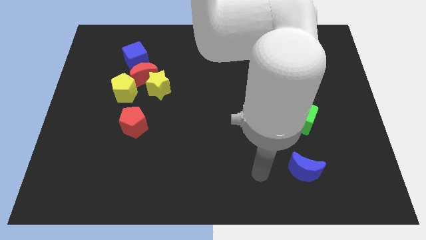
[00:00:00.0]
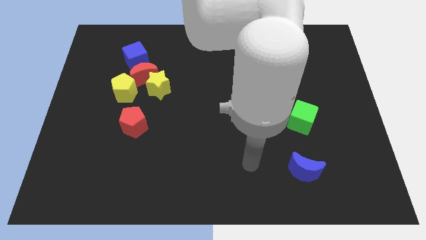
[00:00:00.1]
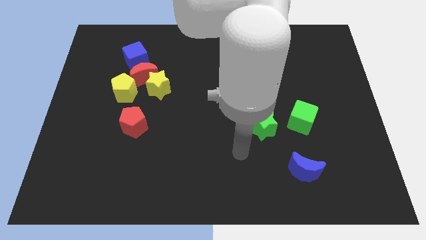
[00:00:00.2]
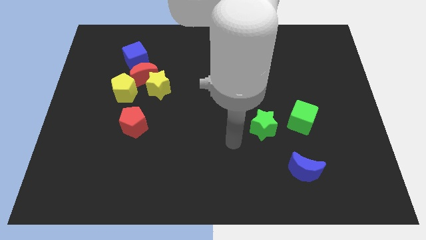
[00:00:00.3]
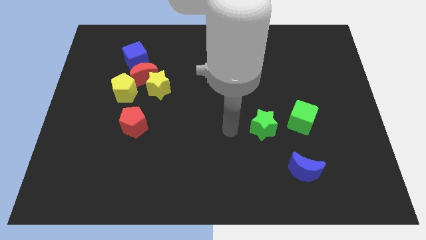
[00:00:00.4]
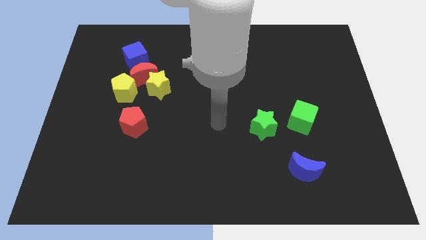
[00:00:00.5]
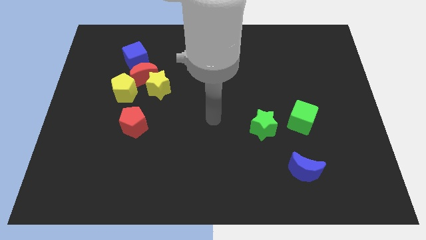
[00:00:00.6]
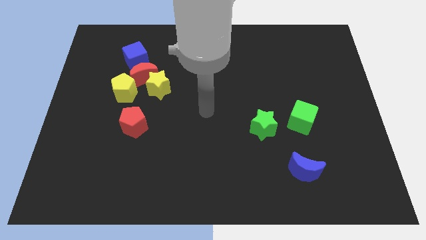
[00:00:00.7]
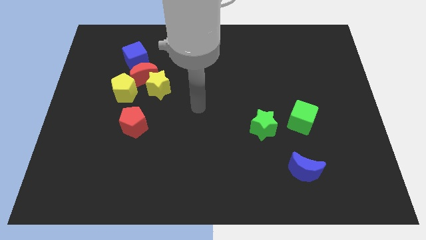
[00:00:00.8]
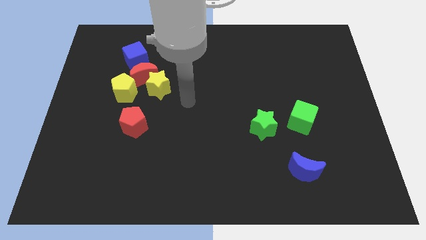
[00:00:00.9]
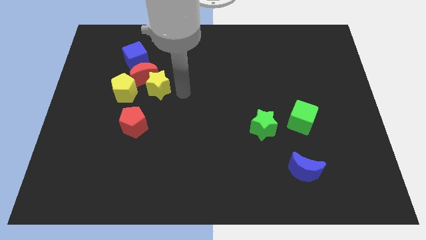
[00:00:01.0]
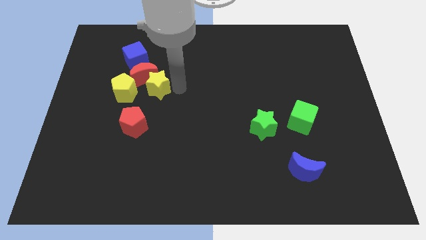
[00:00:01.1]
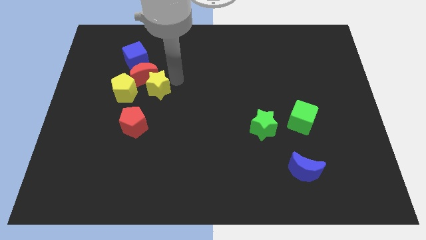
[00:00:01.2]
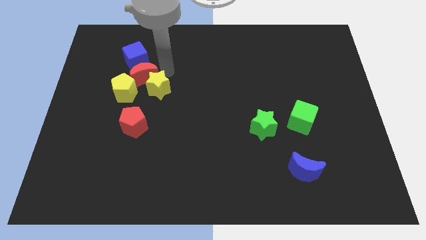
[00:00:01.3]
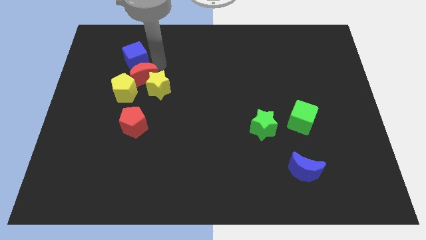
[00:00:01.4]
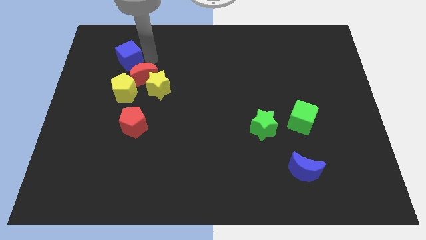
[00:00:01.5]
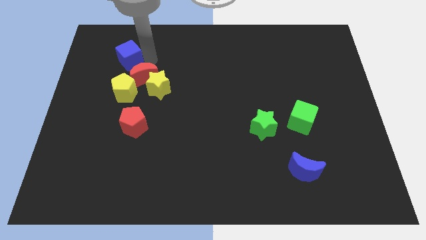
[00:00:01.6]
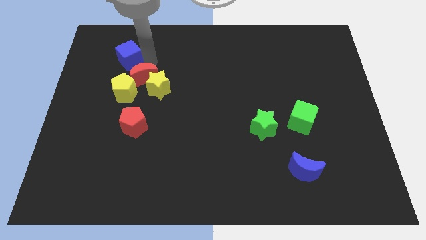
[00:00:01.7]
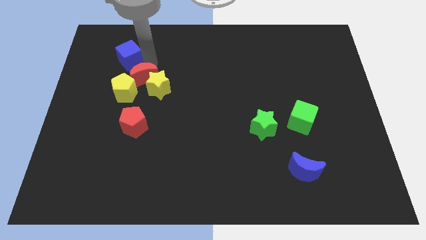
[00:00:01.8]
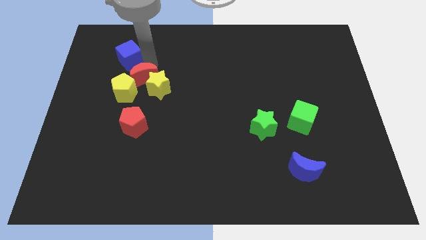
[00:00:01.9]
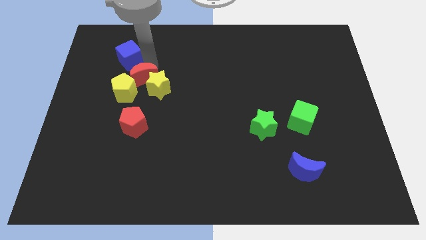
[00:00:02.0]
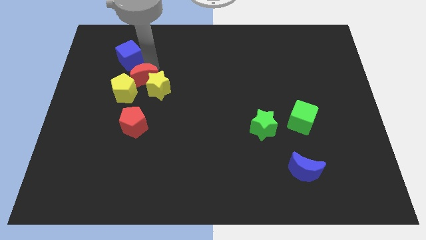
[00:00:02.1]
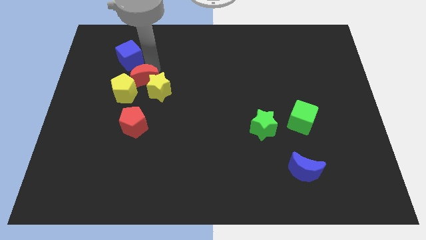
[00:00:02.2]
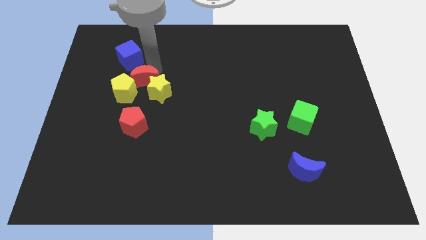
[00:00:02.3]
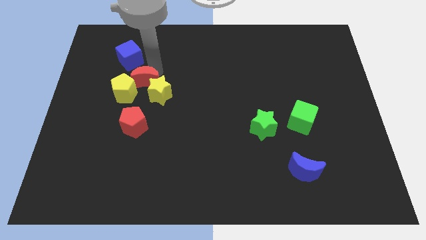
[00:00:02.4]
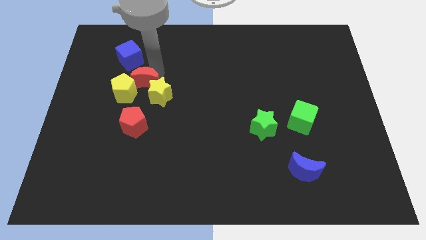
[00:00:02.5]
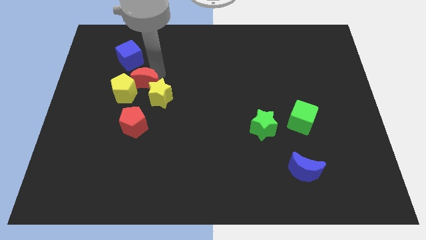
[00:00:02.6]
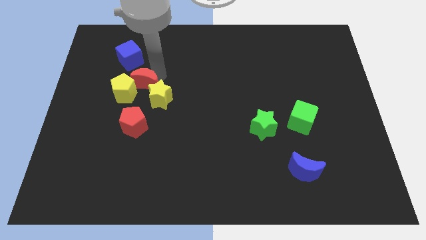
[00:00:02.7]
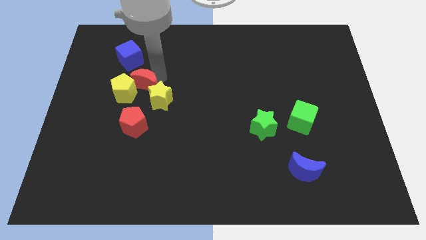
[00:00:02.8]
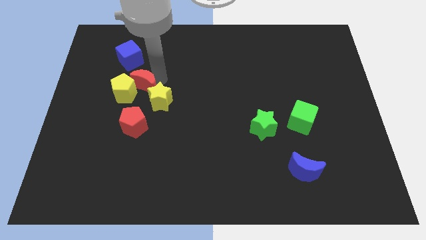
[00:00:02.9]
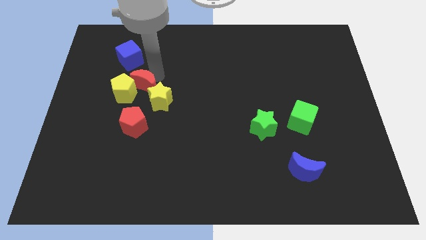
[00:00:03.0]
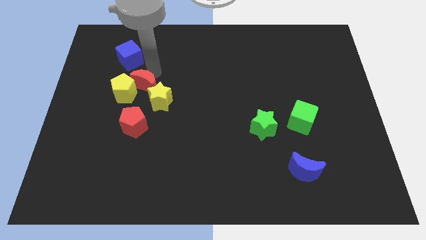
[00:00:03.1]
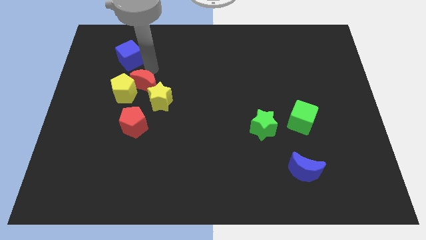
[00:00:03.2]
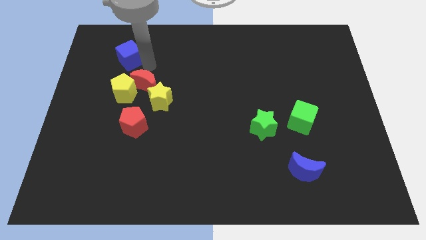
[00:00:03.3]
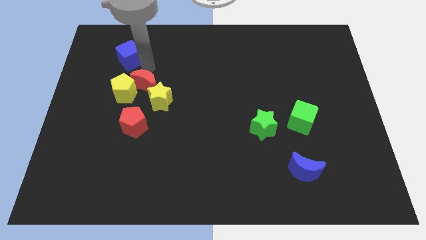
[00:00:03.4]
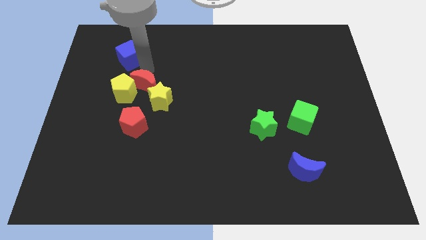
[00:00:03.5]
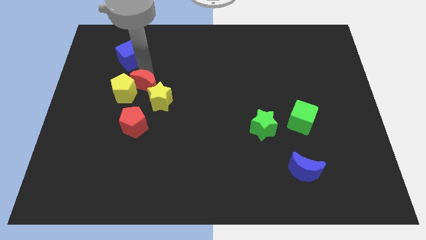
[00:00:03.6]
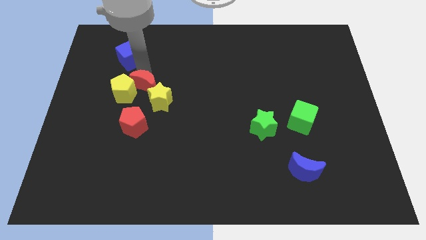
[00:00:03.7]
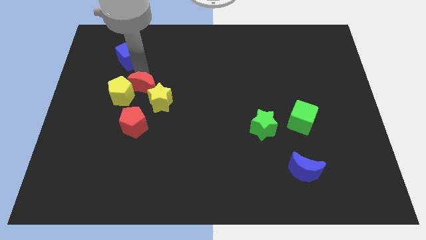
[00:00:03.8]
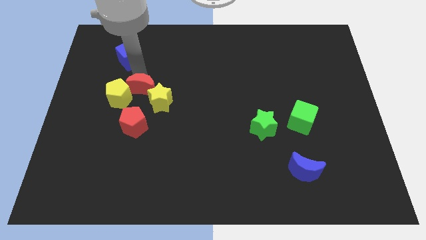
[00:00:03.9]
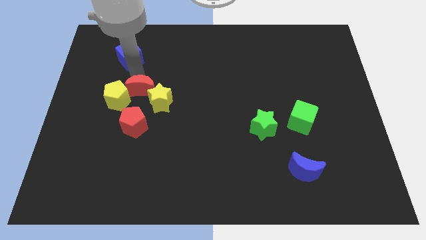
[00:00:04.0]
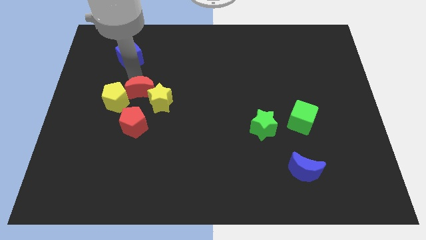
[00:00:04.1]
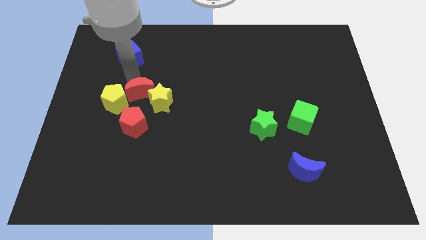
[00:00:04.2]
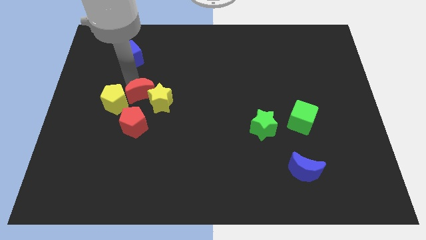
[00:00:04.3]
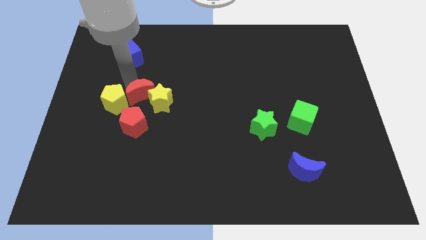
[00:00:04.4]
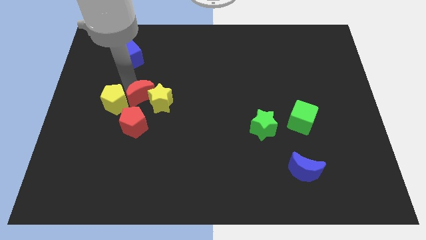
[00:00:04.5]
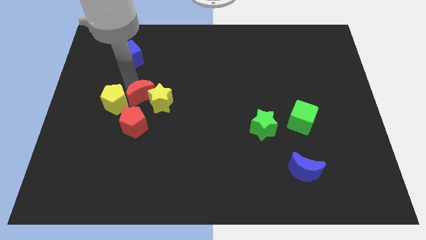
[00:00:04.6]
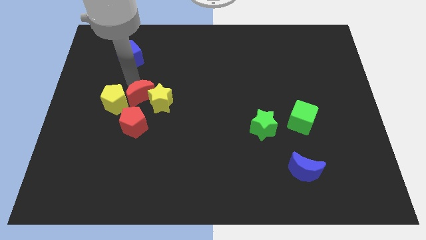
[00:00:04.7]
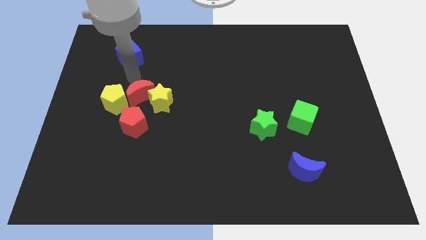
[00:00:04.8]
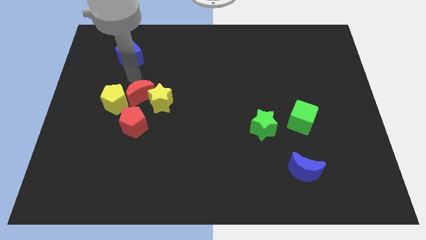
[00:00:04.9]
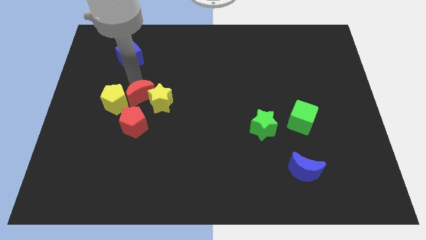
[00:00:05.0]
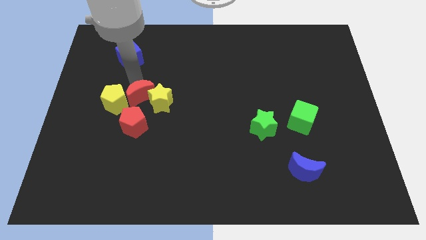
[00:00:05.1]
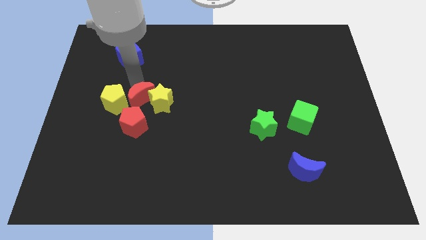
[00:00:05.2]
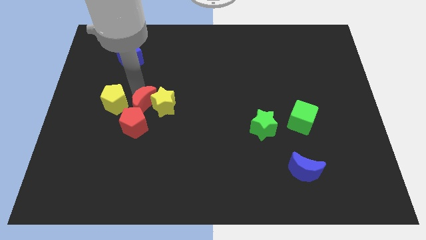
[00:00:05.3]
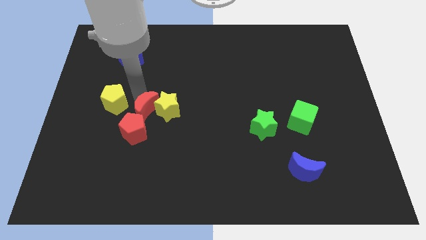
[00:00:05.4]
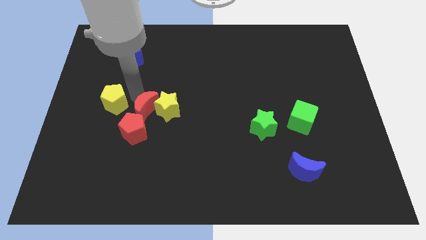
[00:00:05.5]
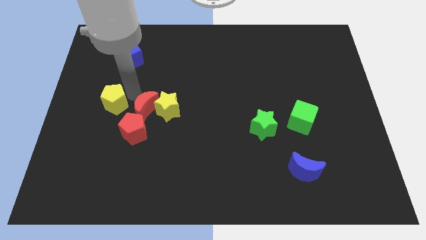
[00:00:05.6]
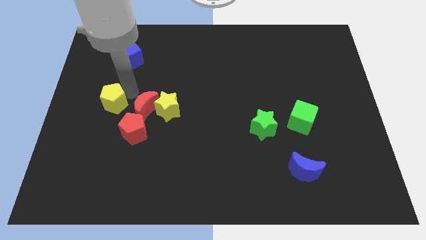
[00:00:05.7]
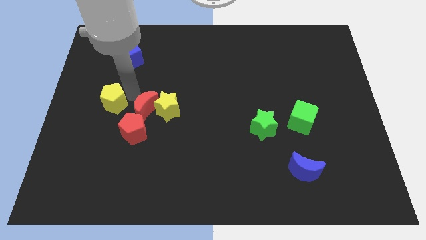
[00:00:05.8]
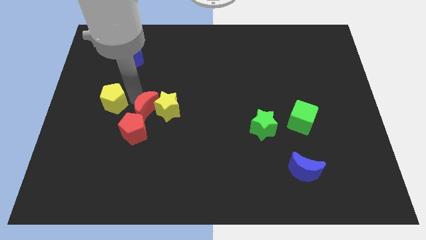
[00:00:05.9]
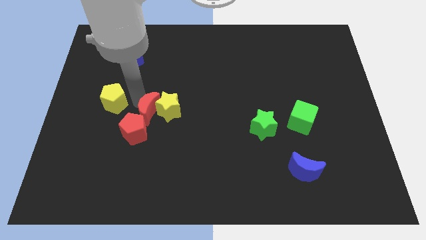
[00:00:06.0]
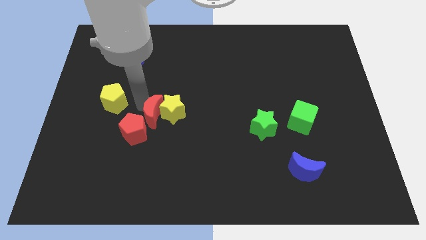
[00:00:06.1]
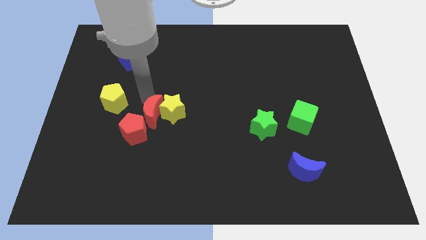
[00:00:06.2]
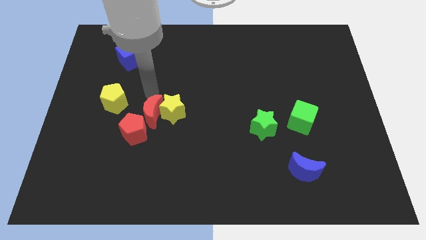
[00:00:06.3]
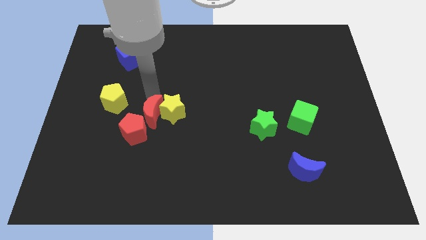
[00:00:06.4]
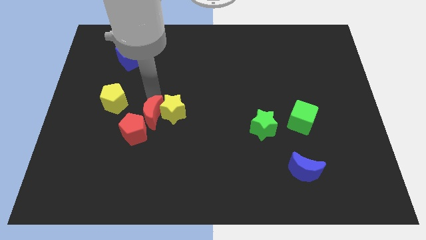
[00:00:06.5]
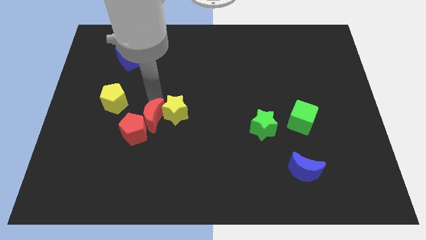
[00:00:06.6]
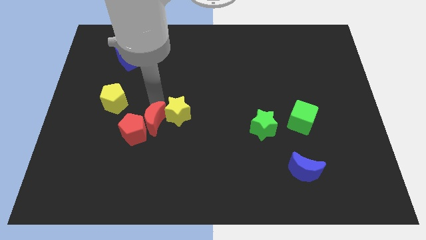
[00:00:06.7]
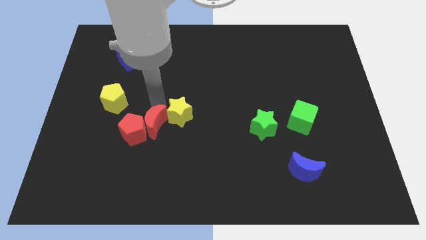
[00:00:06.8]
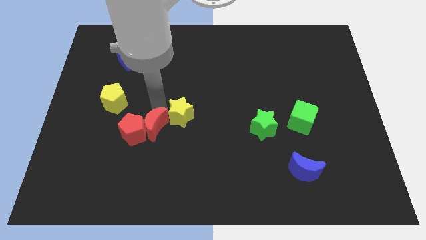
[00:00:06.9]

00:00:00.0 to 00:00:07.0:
put the red moon diagonally down and to the right of the red pentagon
